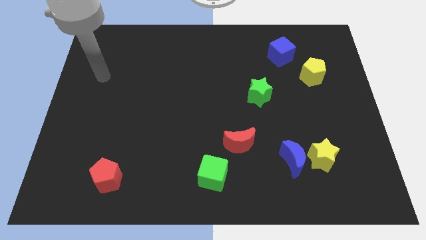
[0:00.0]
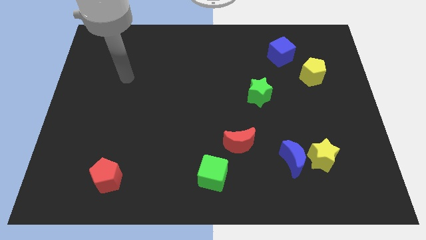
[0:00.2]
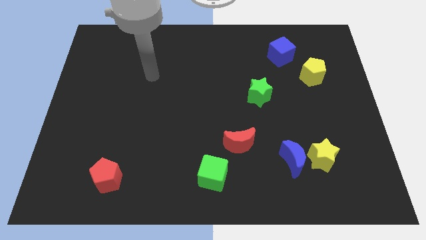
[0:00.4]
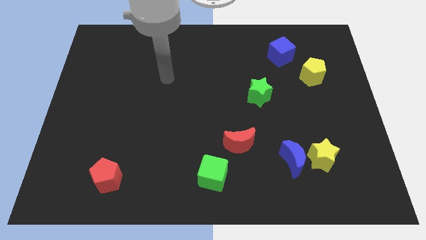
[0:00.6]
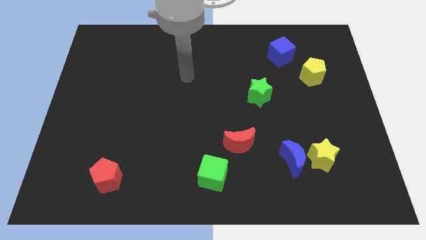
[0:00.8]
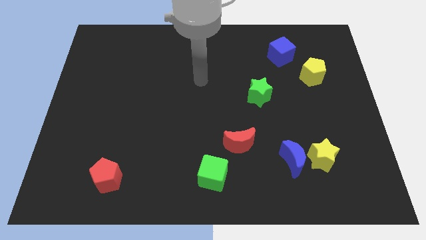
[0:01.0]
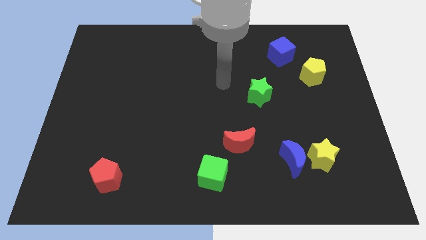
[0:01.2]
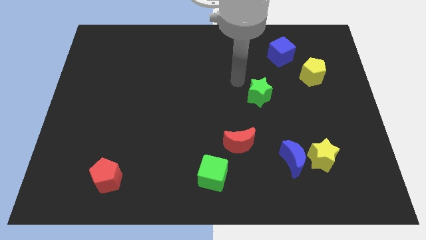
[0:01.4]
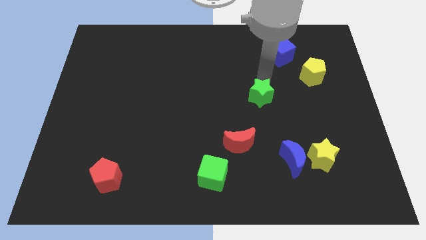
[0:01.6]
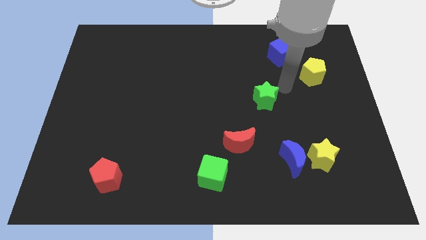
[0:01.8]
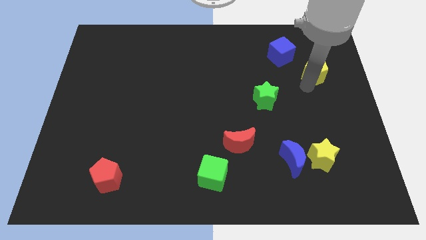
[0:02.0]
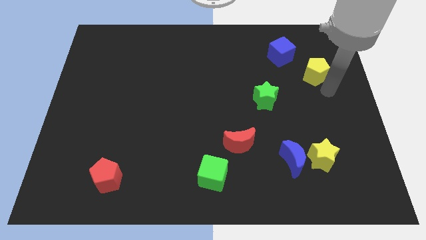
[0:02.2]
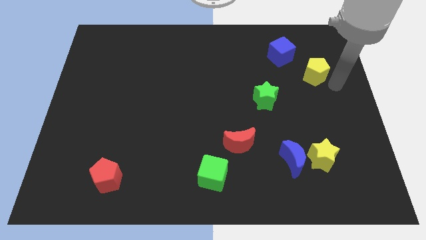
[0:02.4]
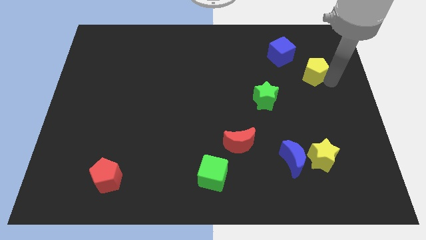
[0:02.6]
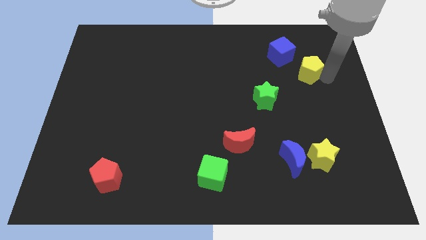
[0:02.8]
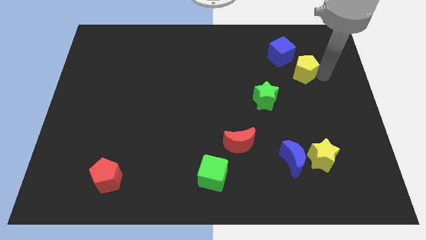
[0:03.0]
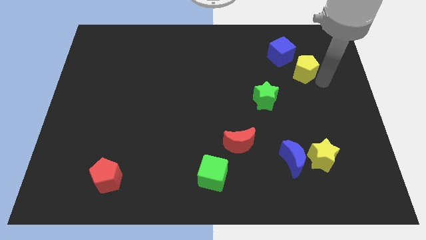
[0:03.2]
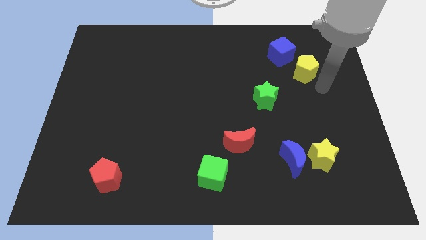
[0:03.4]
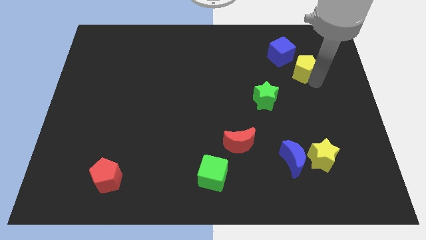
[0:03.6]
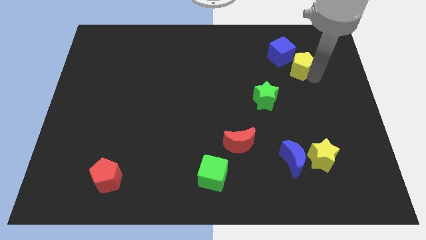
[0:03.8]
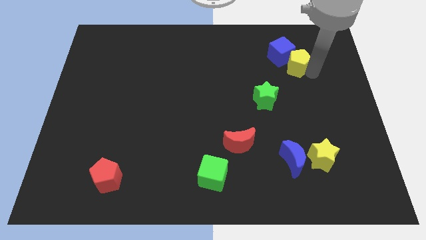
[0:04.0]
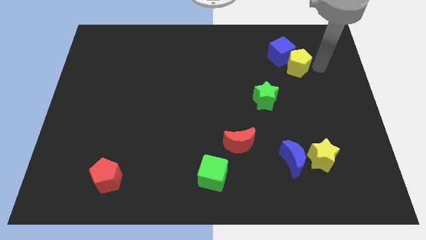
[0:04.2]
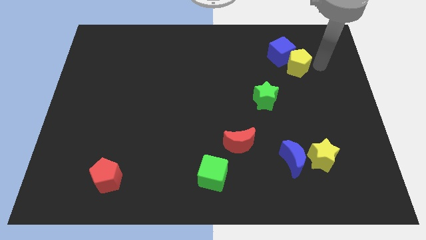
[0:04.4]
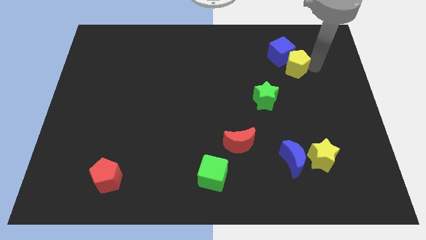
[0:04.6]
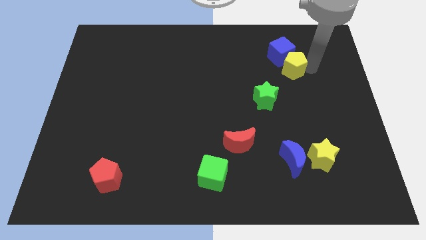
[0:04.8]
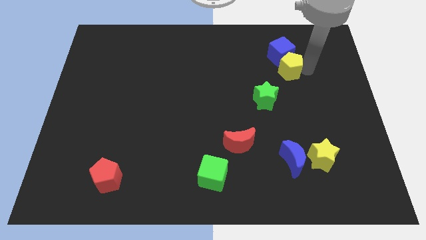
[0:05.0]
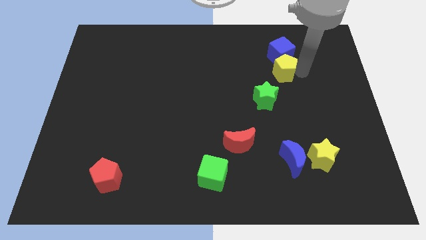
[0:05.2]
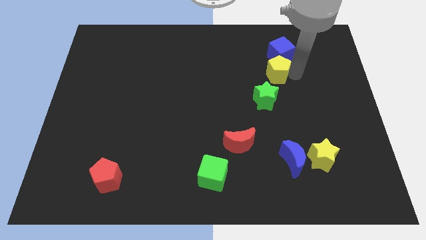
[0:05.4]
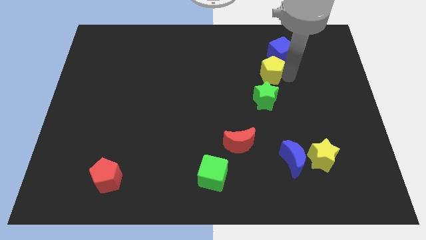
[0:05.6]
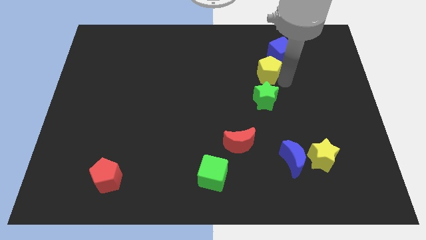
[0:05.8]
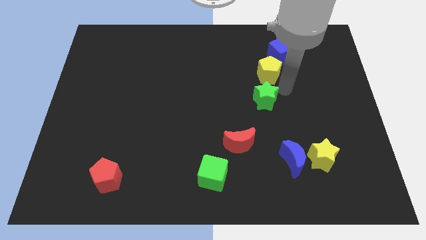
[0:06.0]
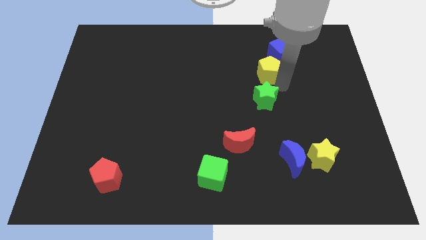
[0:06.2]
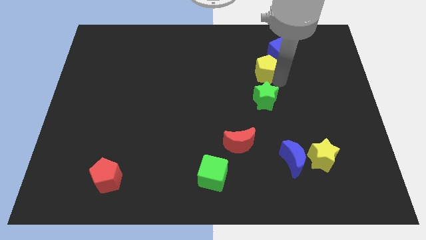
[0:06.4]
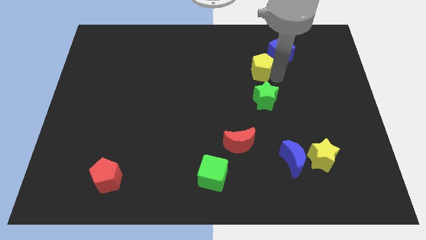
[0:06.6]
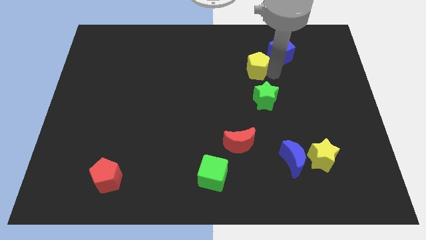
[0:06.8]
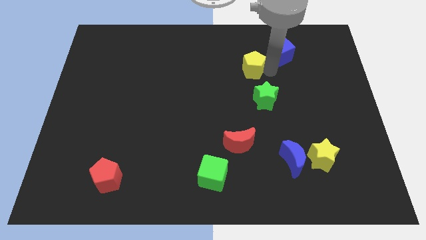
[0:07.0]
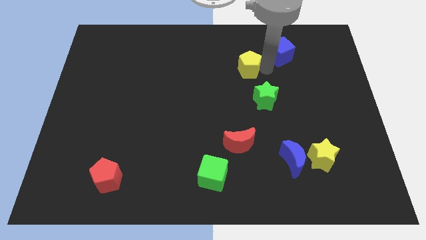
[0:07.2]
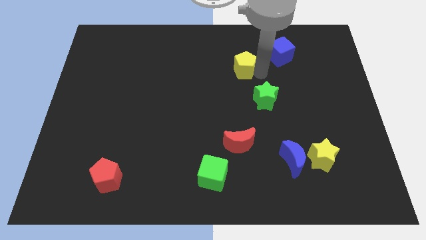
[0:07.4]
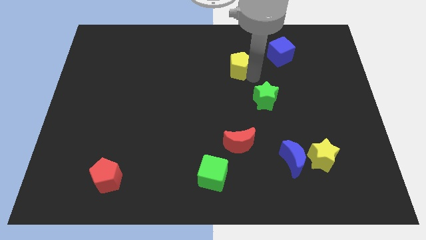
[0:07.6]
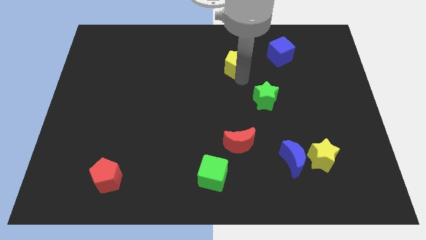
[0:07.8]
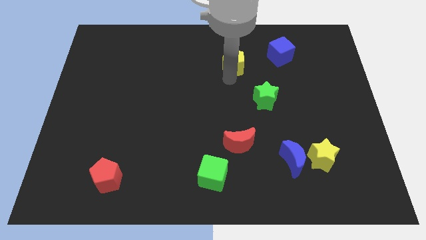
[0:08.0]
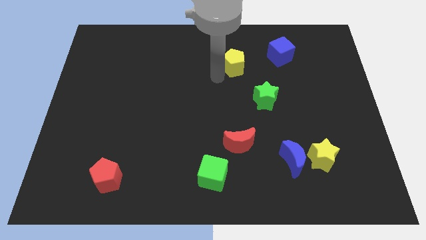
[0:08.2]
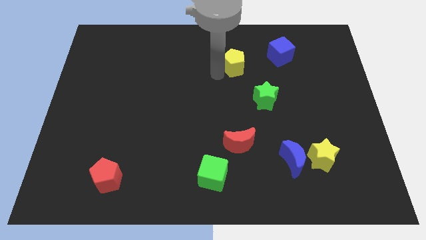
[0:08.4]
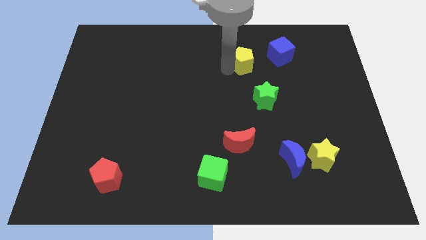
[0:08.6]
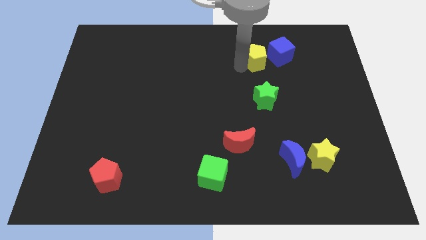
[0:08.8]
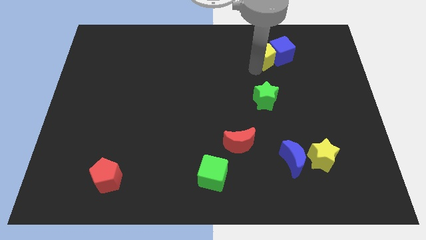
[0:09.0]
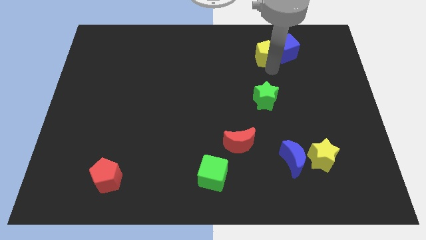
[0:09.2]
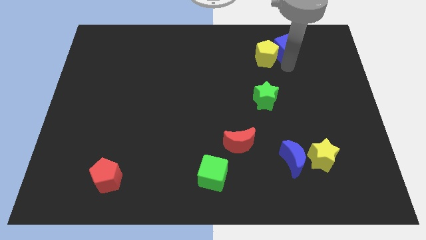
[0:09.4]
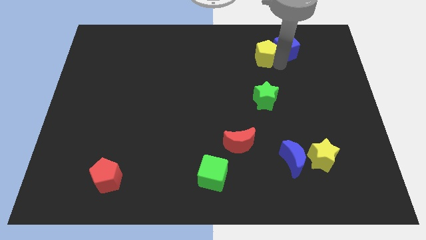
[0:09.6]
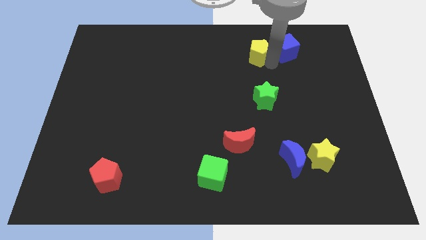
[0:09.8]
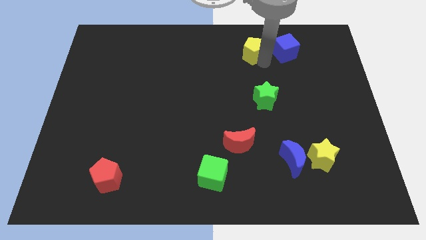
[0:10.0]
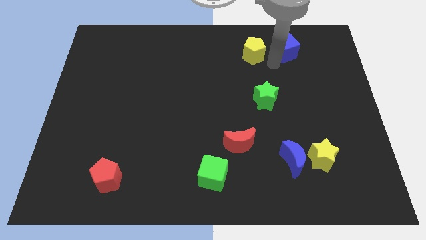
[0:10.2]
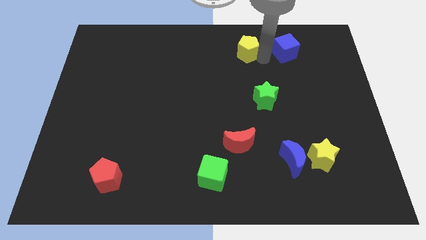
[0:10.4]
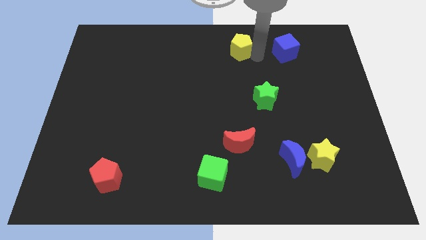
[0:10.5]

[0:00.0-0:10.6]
push the yellow pentagon to the top

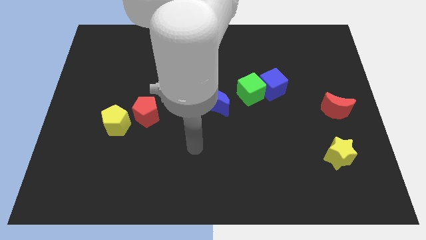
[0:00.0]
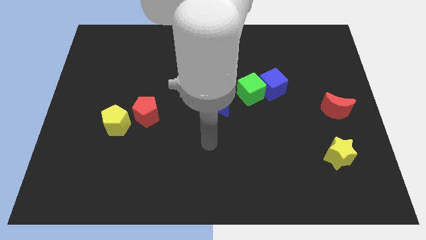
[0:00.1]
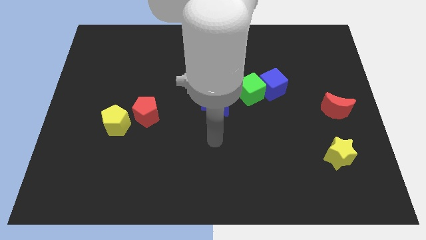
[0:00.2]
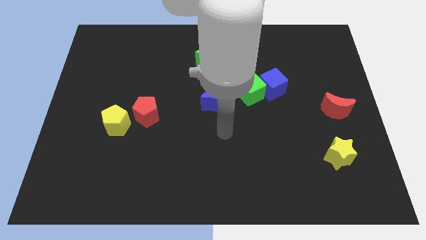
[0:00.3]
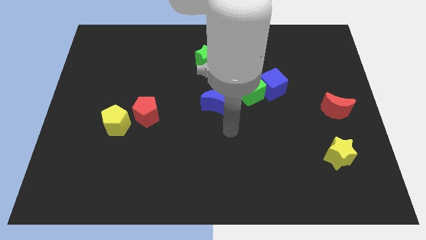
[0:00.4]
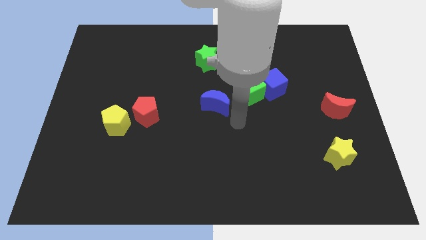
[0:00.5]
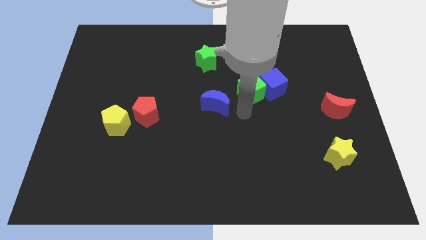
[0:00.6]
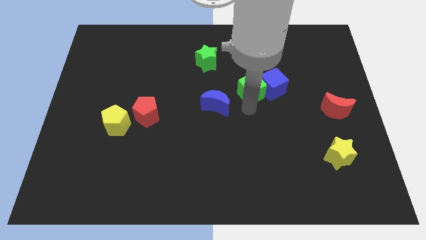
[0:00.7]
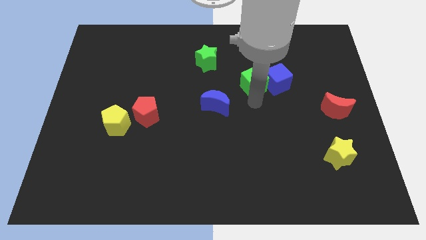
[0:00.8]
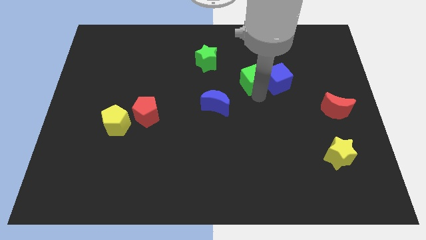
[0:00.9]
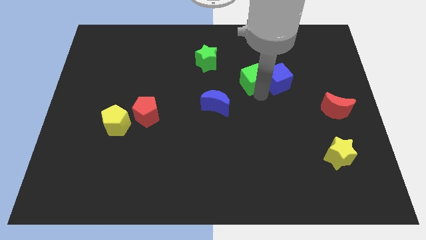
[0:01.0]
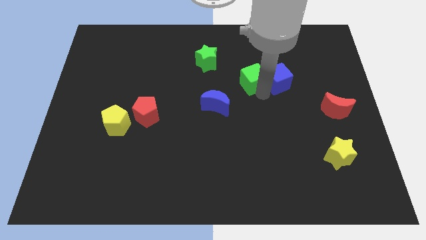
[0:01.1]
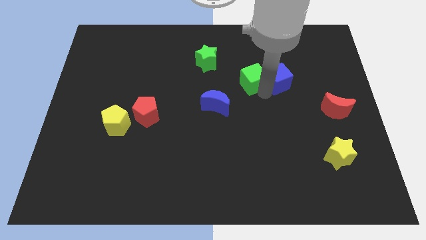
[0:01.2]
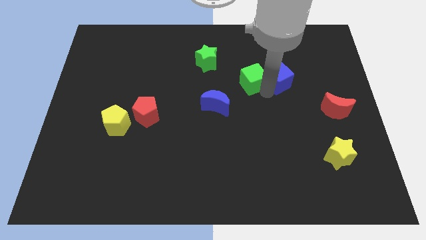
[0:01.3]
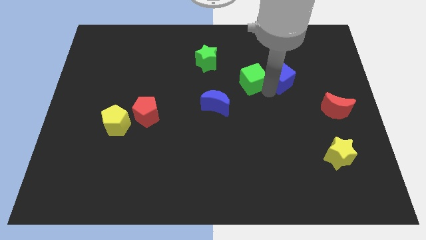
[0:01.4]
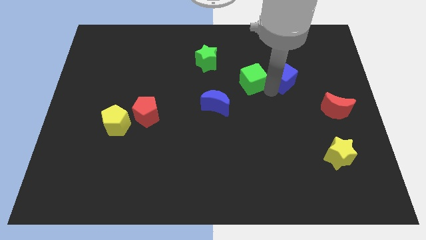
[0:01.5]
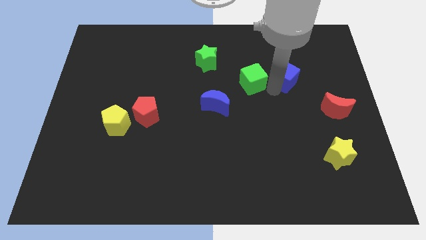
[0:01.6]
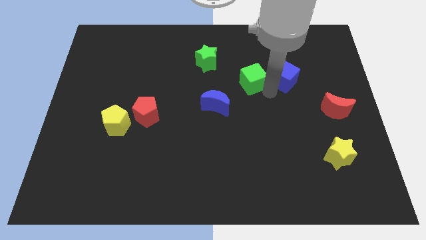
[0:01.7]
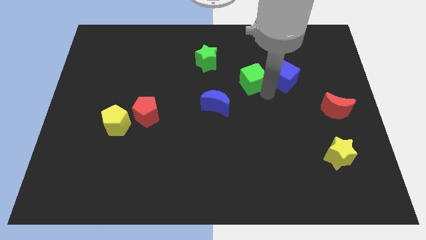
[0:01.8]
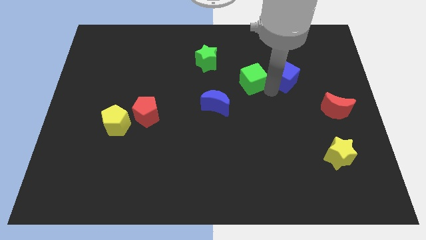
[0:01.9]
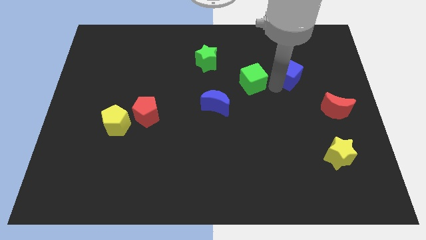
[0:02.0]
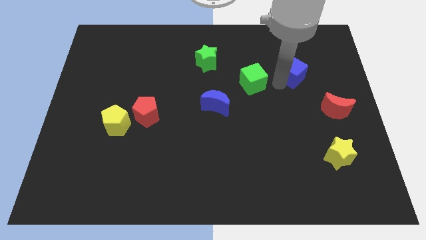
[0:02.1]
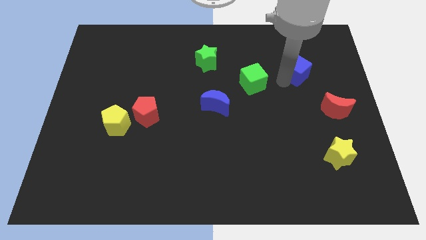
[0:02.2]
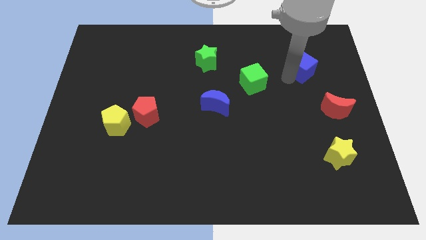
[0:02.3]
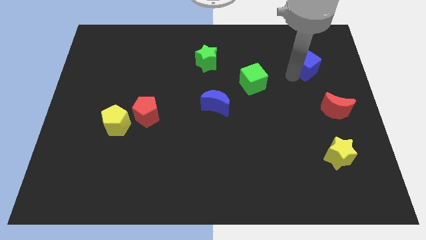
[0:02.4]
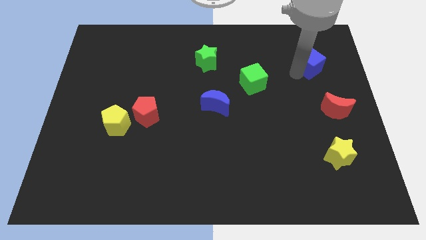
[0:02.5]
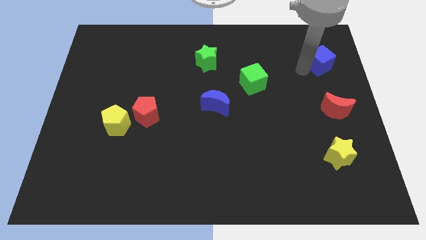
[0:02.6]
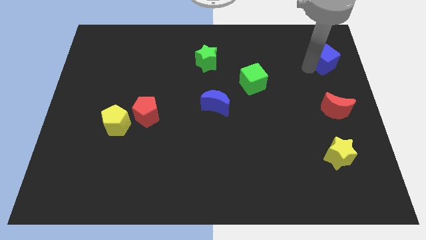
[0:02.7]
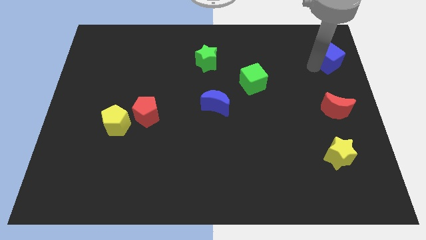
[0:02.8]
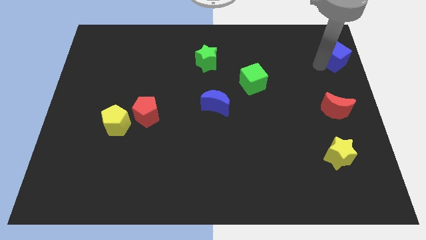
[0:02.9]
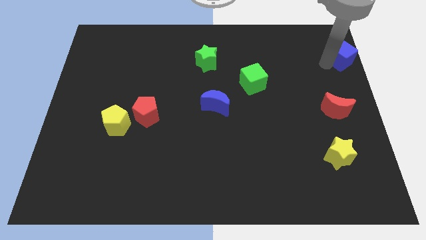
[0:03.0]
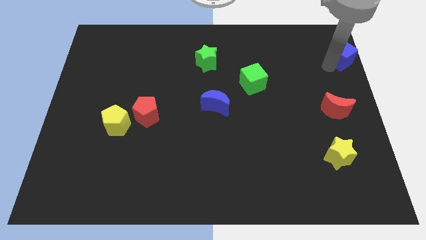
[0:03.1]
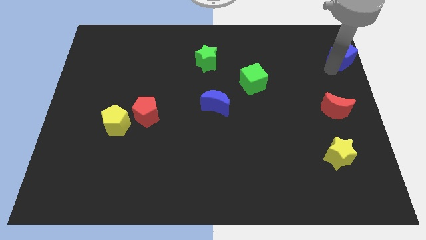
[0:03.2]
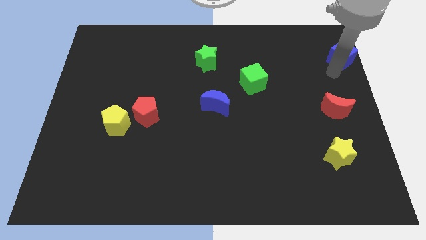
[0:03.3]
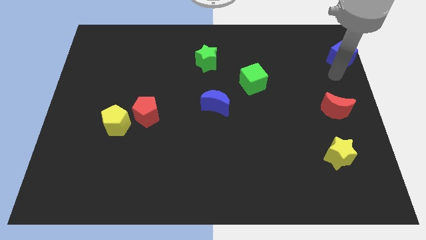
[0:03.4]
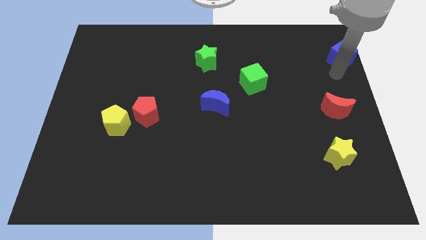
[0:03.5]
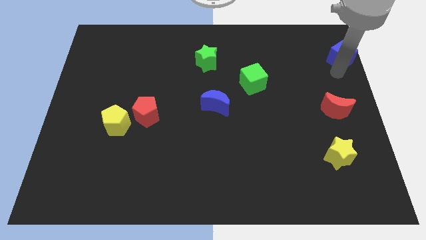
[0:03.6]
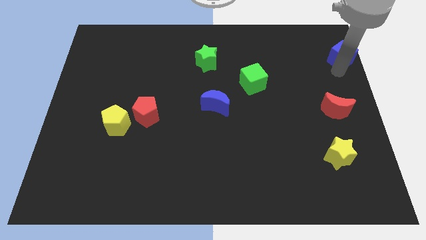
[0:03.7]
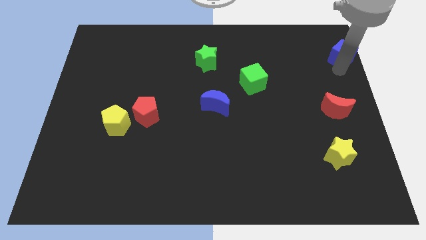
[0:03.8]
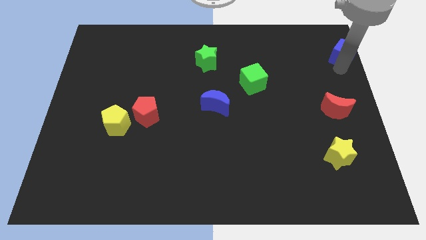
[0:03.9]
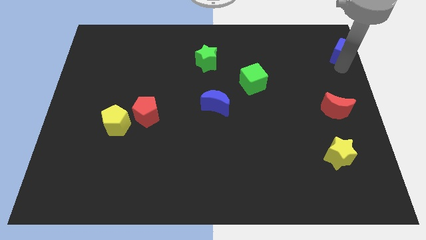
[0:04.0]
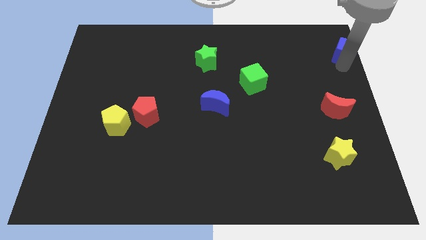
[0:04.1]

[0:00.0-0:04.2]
push the blue cube to the top right corner
